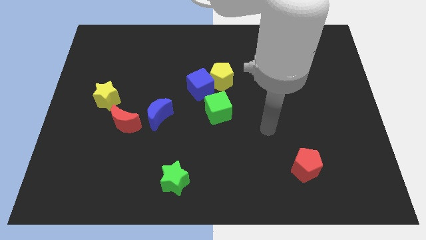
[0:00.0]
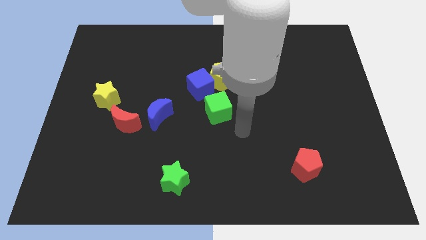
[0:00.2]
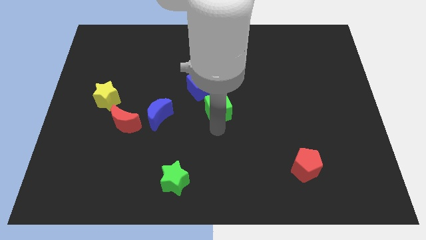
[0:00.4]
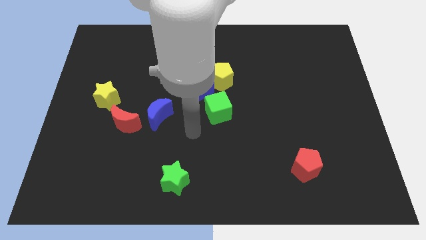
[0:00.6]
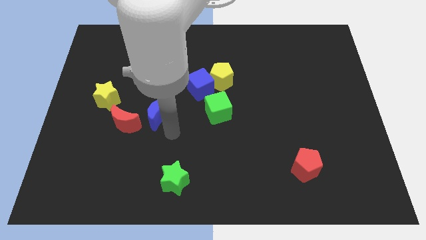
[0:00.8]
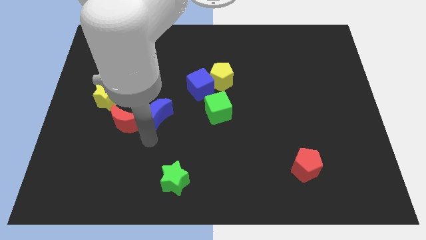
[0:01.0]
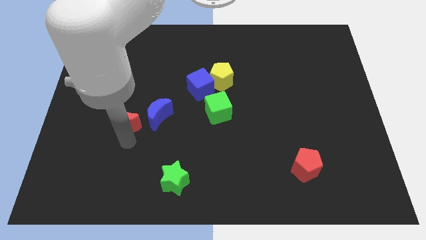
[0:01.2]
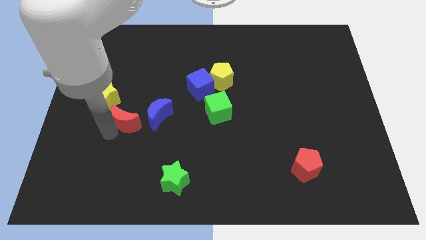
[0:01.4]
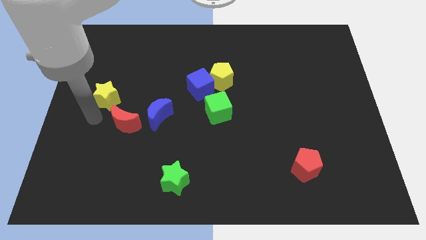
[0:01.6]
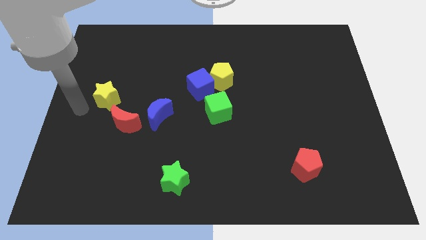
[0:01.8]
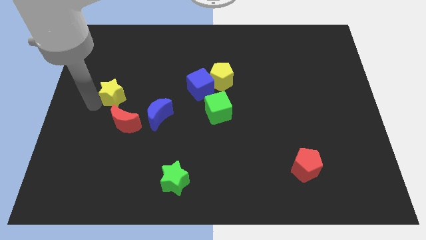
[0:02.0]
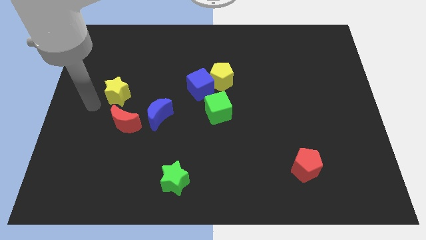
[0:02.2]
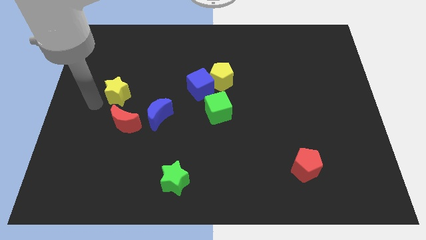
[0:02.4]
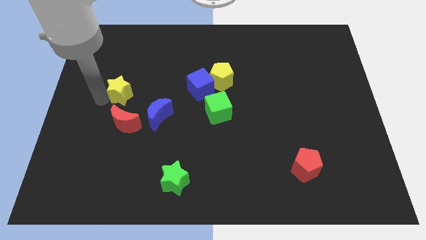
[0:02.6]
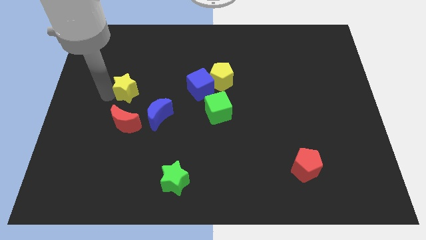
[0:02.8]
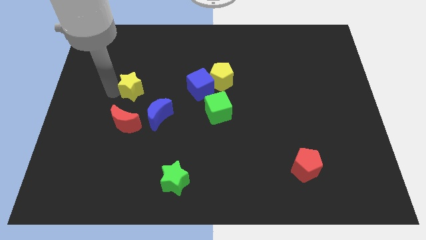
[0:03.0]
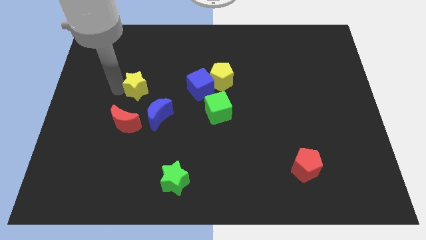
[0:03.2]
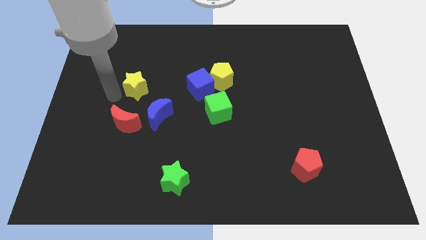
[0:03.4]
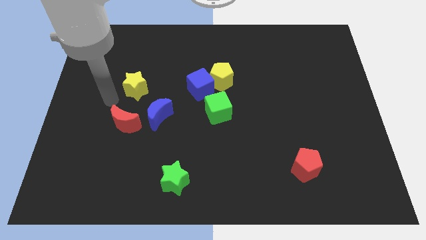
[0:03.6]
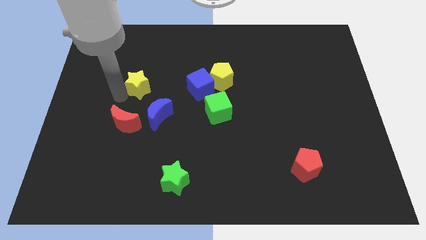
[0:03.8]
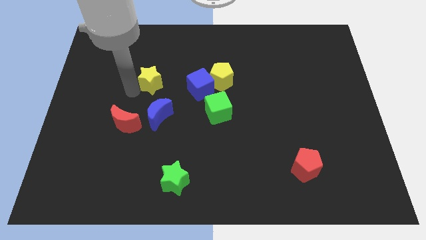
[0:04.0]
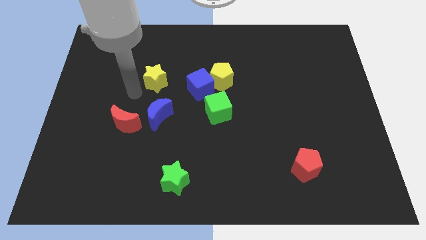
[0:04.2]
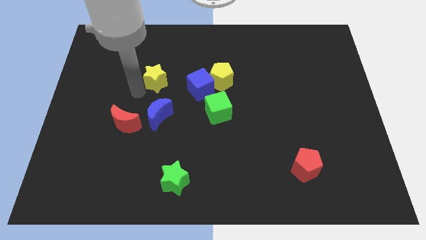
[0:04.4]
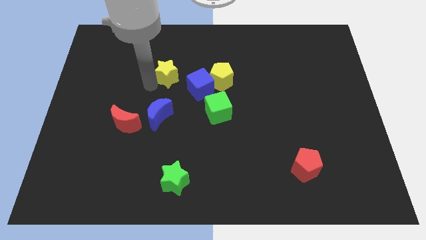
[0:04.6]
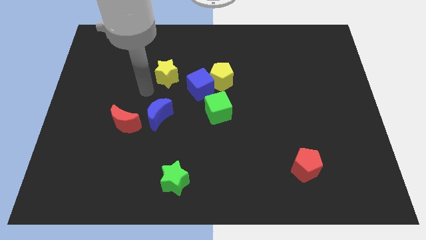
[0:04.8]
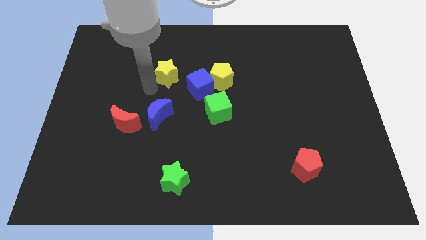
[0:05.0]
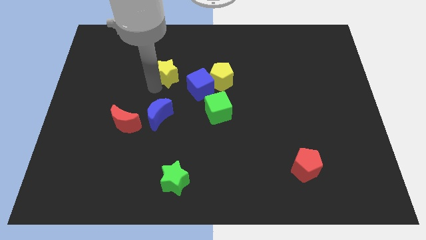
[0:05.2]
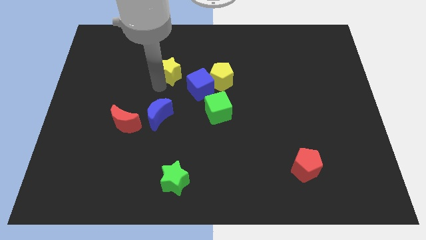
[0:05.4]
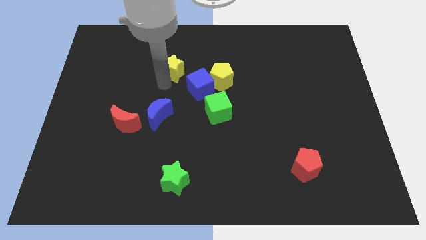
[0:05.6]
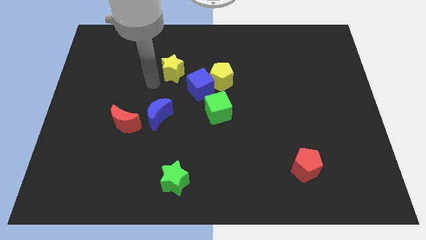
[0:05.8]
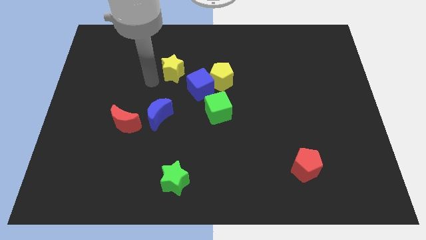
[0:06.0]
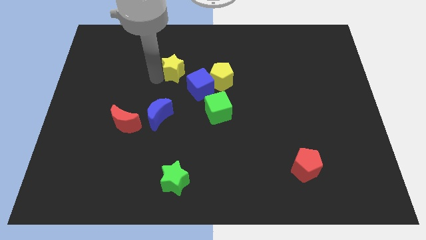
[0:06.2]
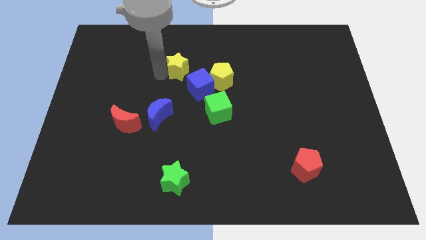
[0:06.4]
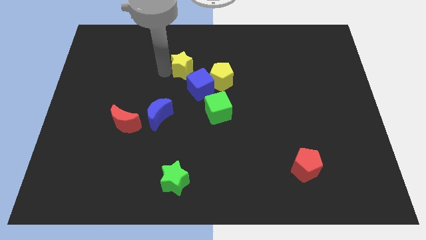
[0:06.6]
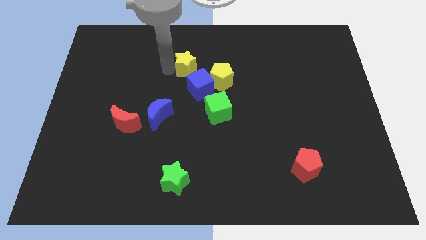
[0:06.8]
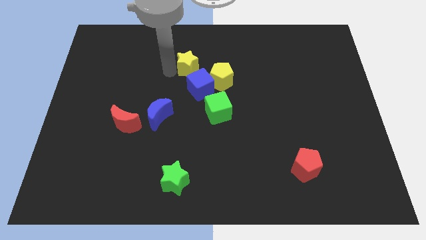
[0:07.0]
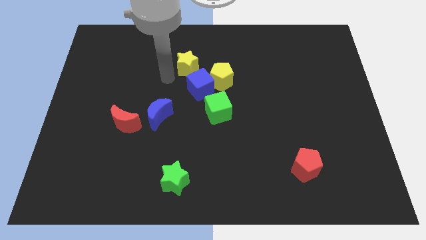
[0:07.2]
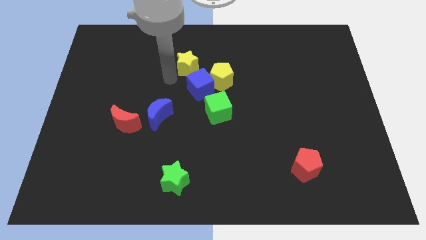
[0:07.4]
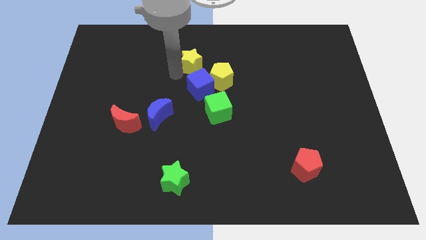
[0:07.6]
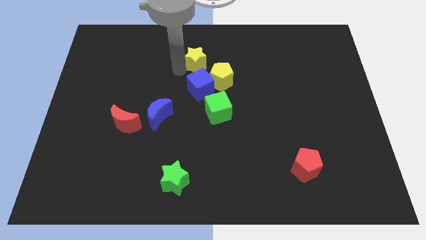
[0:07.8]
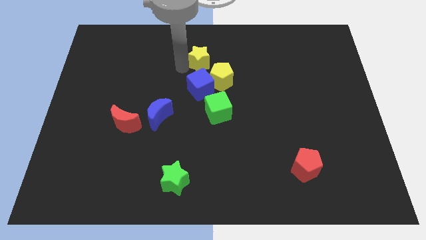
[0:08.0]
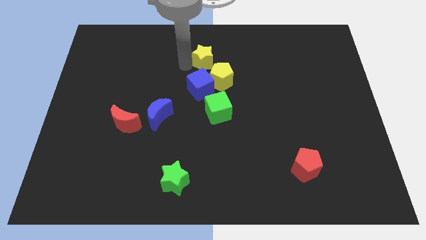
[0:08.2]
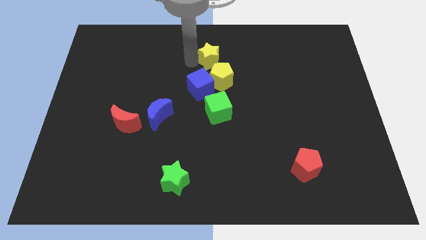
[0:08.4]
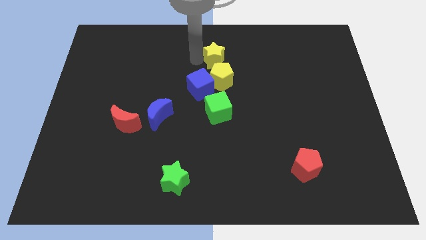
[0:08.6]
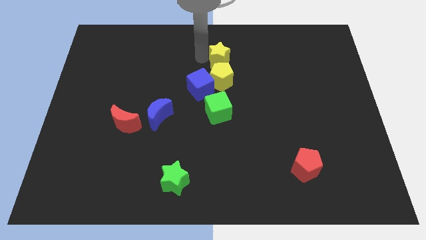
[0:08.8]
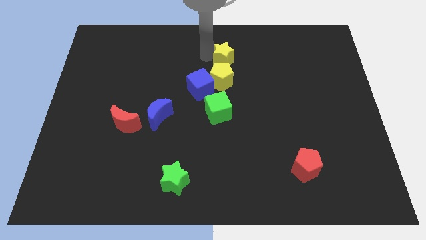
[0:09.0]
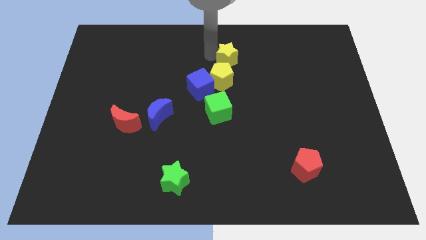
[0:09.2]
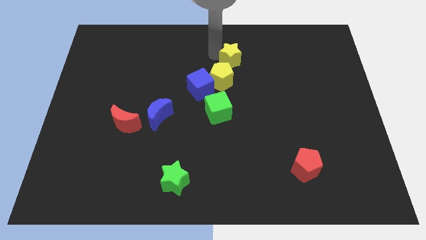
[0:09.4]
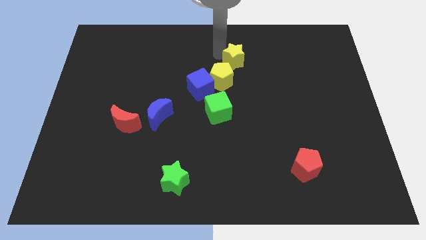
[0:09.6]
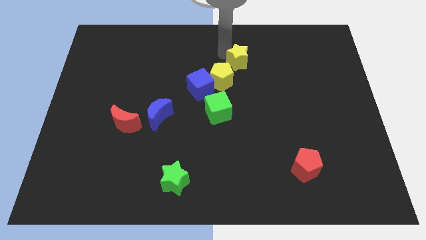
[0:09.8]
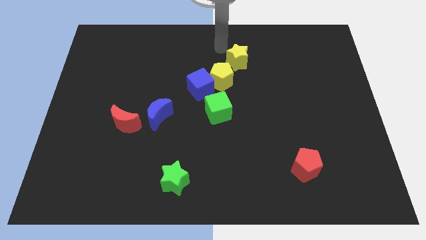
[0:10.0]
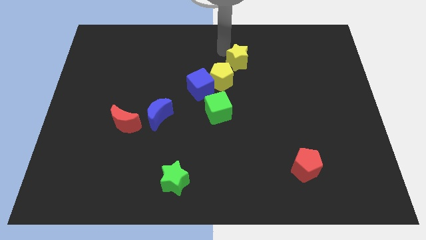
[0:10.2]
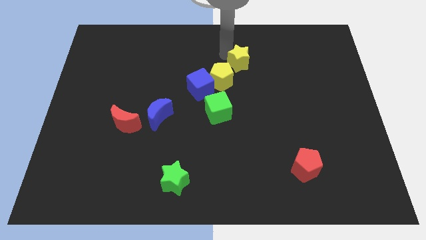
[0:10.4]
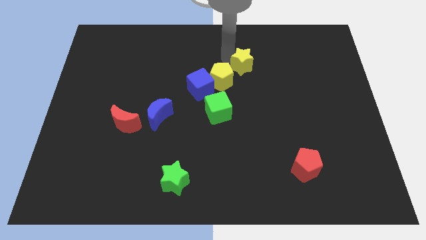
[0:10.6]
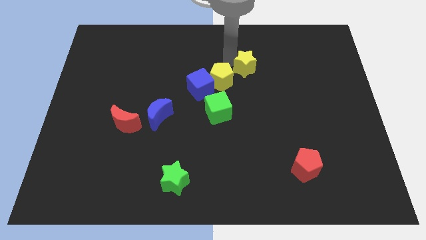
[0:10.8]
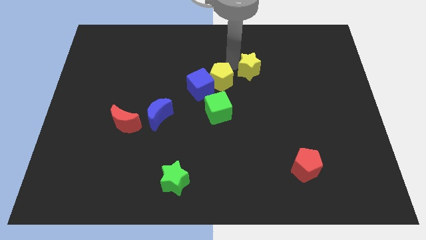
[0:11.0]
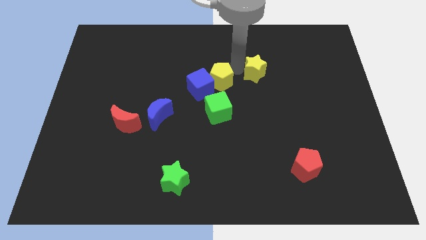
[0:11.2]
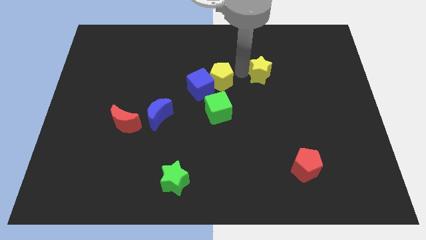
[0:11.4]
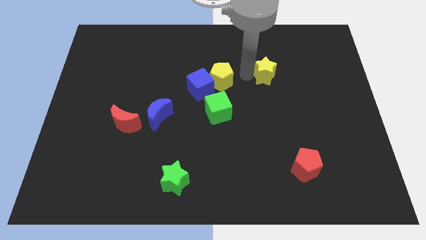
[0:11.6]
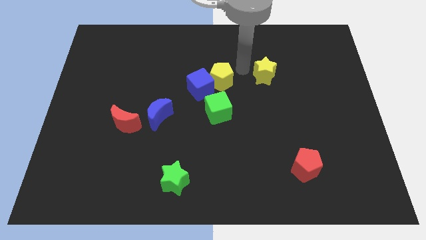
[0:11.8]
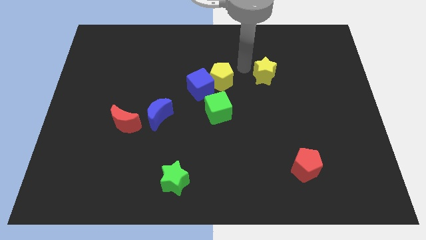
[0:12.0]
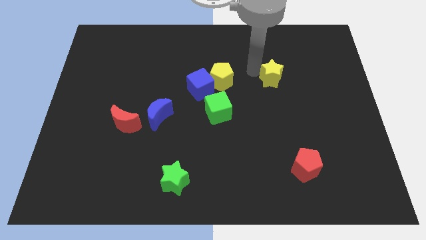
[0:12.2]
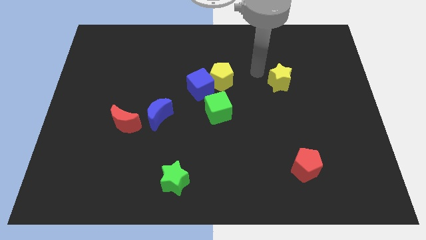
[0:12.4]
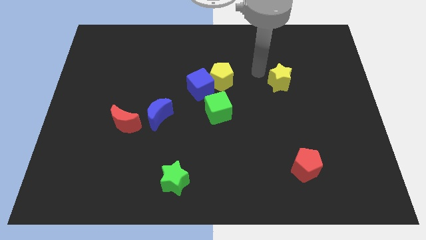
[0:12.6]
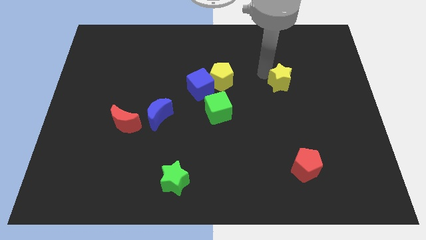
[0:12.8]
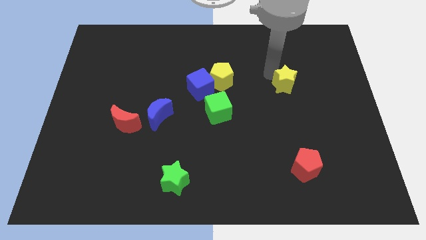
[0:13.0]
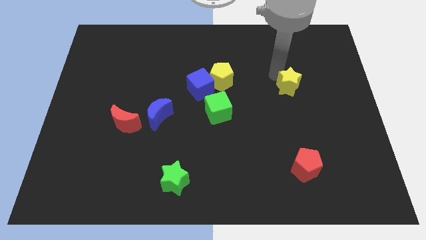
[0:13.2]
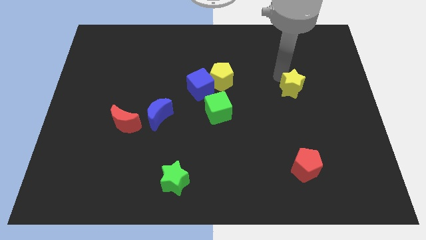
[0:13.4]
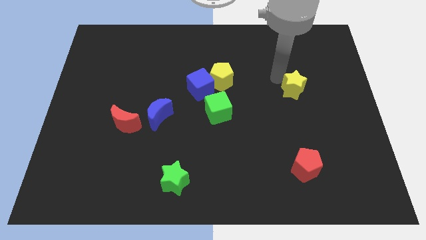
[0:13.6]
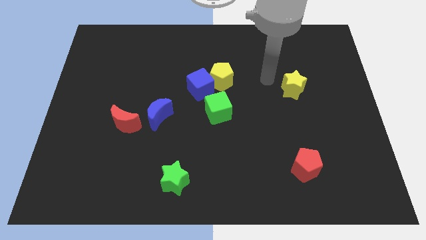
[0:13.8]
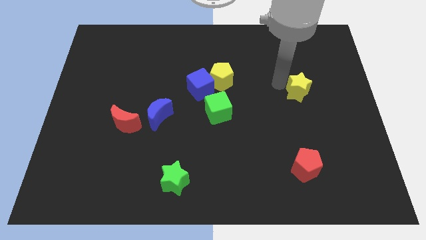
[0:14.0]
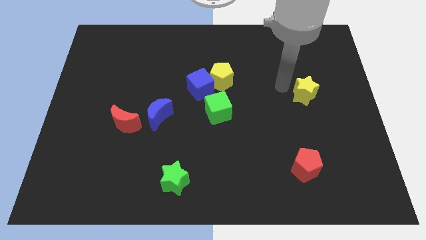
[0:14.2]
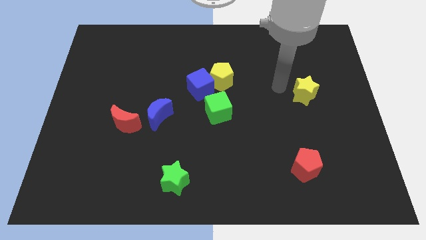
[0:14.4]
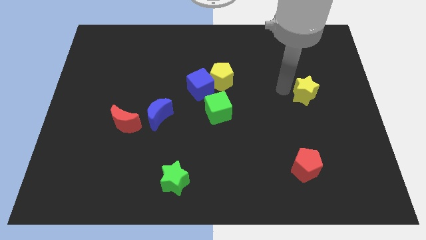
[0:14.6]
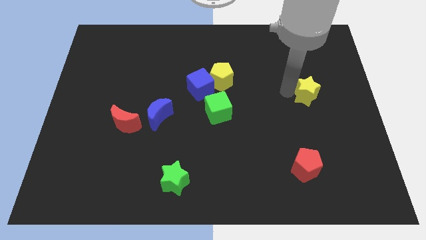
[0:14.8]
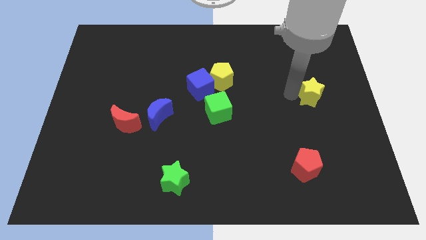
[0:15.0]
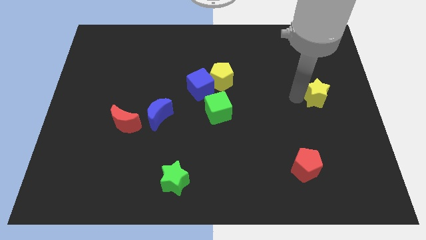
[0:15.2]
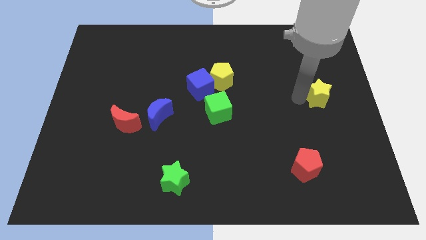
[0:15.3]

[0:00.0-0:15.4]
push the yellow star to the center right

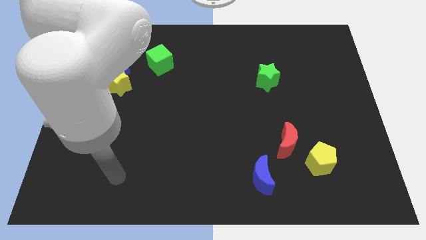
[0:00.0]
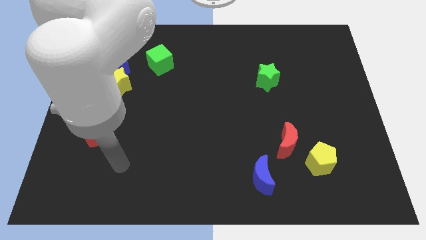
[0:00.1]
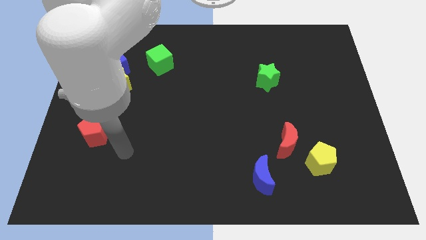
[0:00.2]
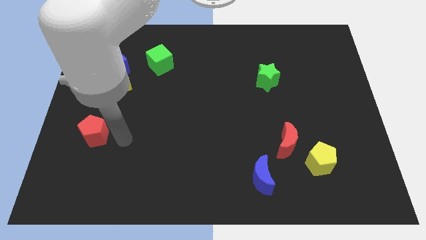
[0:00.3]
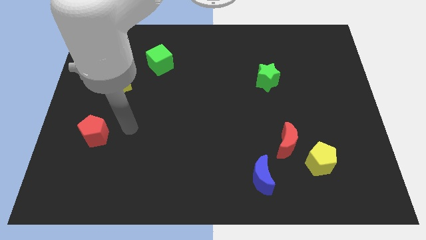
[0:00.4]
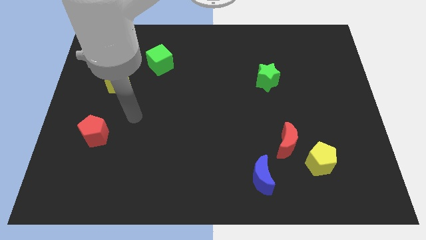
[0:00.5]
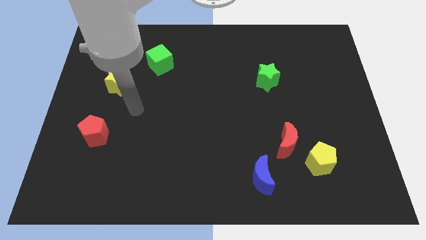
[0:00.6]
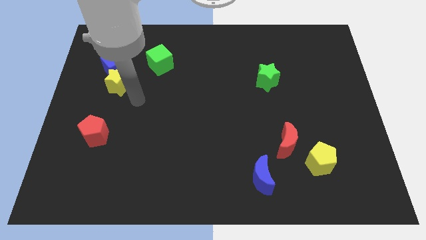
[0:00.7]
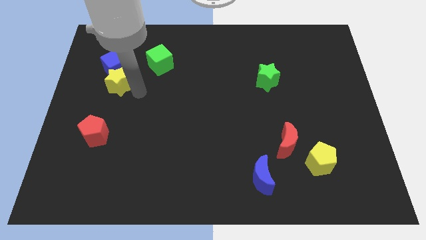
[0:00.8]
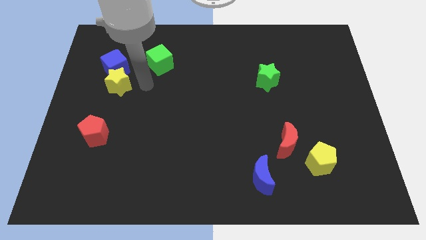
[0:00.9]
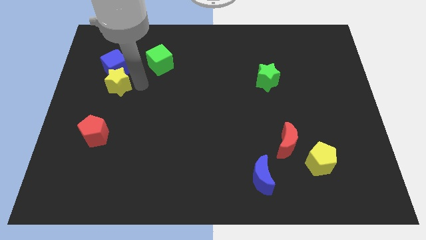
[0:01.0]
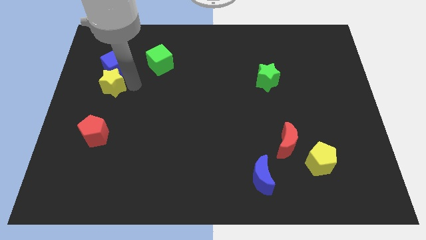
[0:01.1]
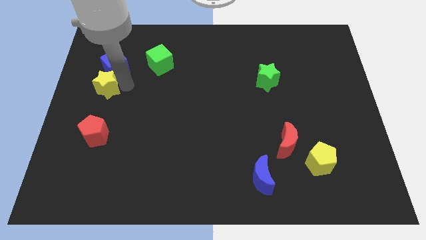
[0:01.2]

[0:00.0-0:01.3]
push the yellow star to the center left
